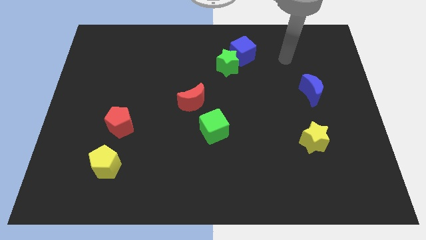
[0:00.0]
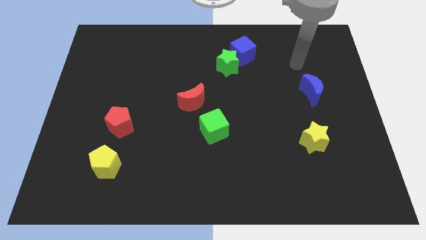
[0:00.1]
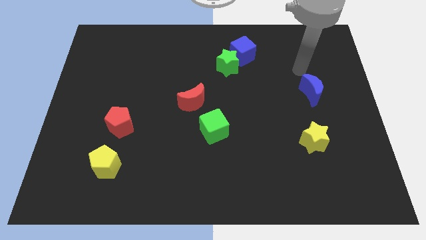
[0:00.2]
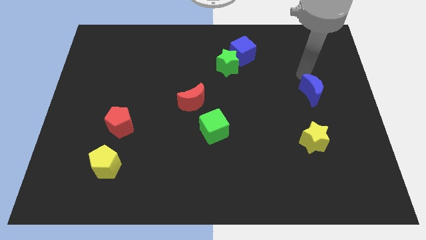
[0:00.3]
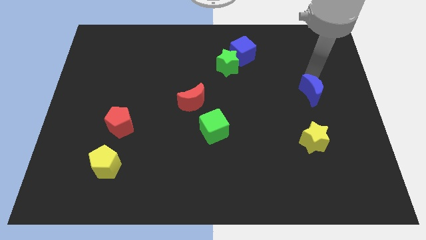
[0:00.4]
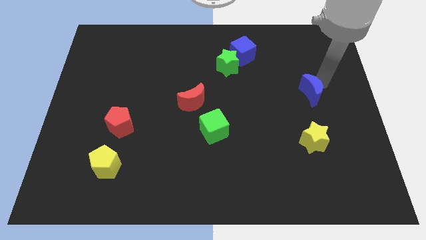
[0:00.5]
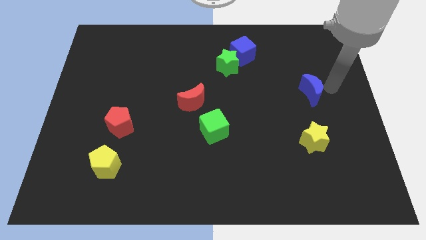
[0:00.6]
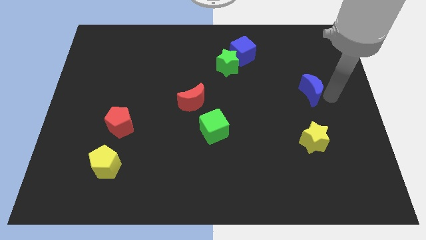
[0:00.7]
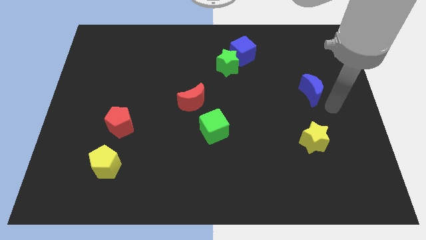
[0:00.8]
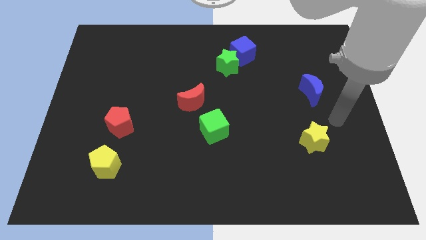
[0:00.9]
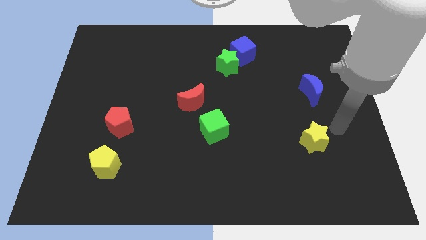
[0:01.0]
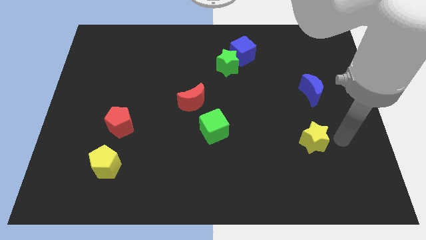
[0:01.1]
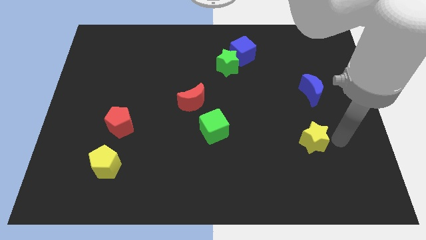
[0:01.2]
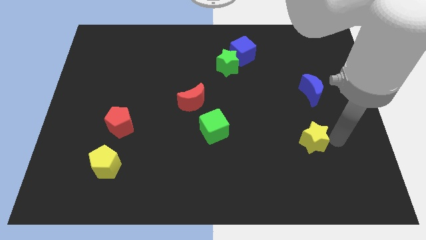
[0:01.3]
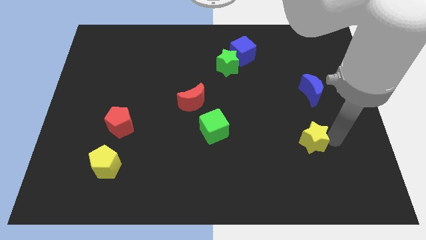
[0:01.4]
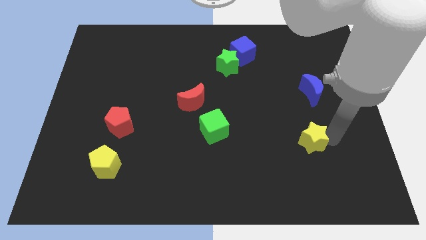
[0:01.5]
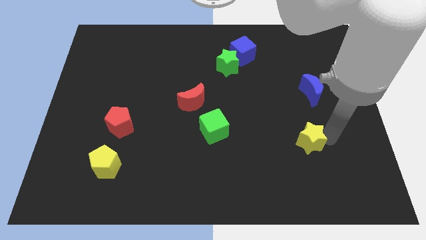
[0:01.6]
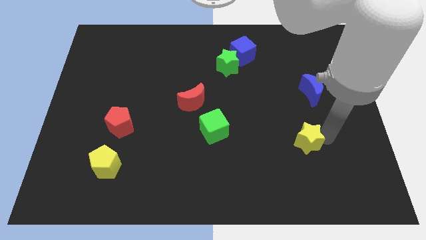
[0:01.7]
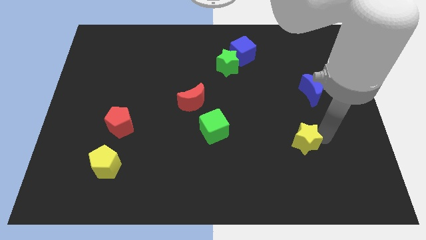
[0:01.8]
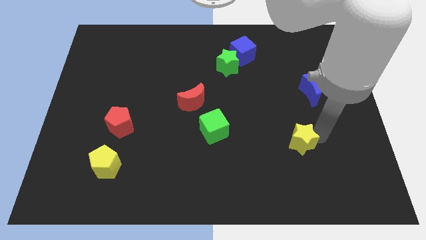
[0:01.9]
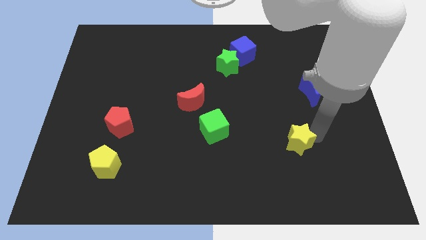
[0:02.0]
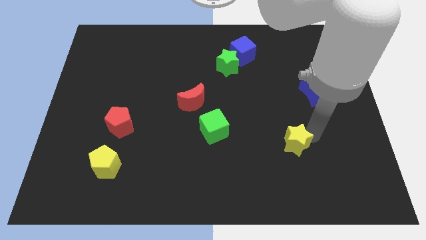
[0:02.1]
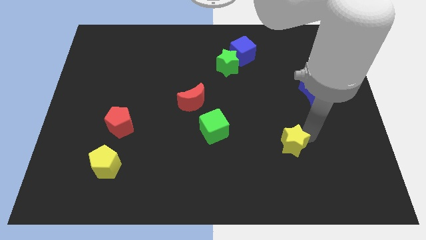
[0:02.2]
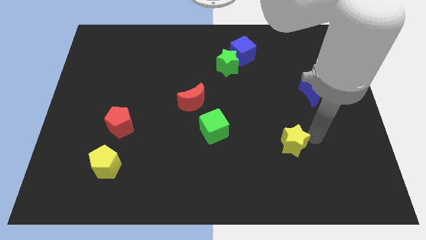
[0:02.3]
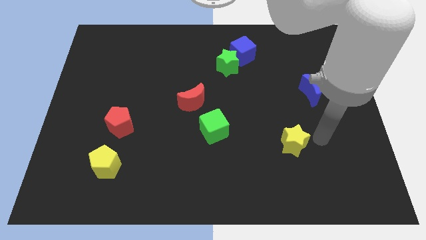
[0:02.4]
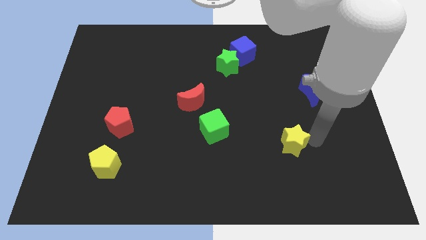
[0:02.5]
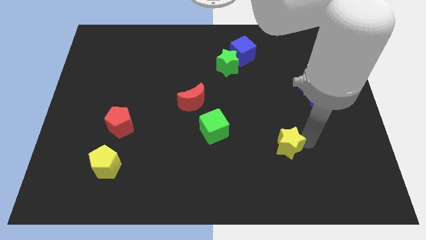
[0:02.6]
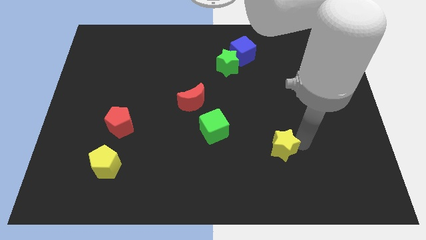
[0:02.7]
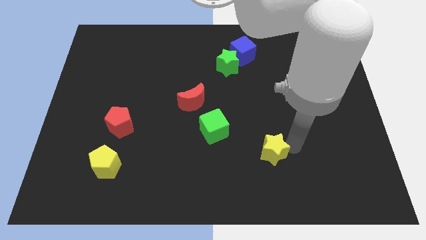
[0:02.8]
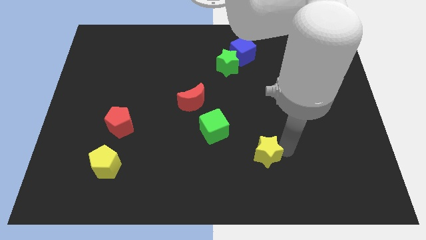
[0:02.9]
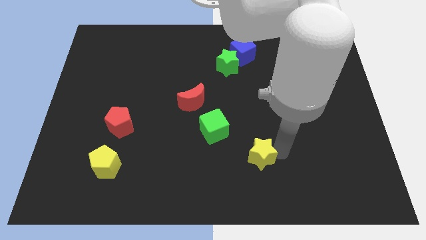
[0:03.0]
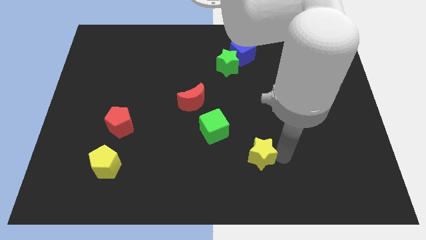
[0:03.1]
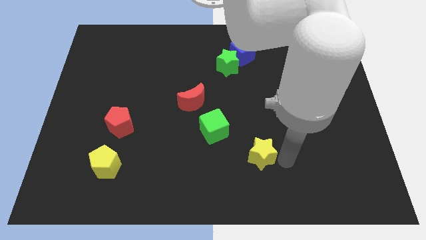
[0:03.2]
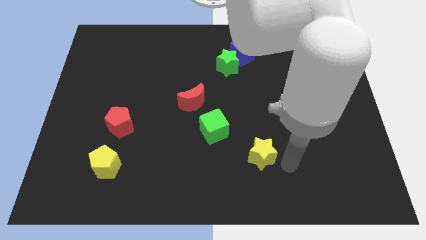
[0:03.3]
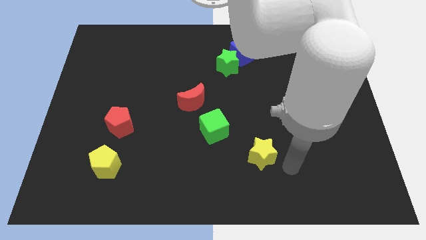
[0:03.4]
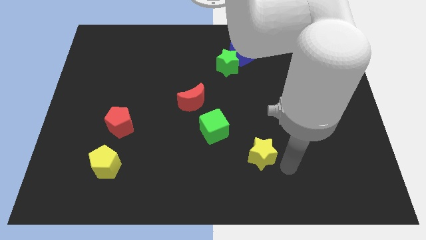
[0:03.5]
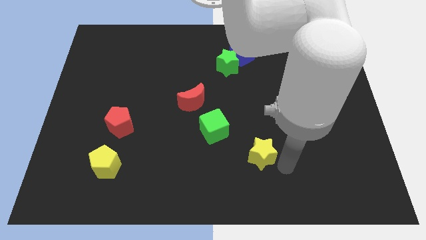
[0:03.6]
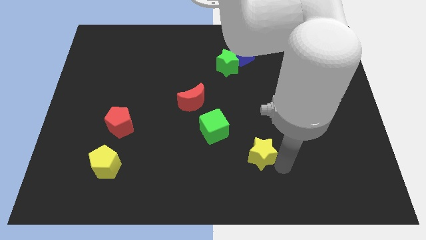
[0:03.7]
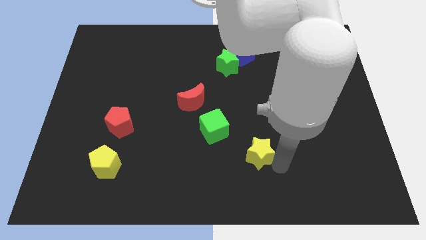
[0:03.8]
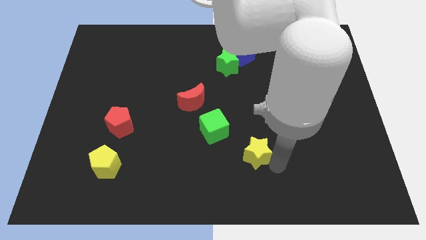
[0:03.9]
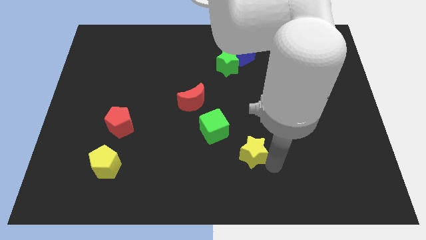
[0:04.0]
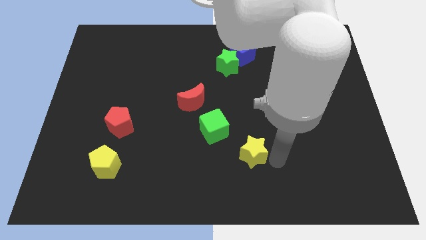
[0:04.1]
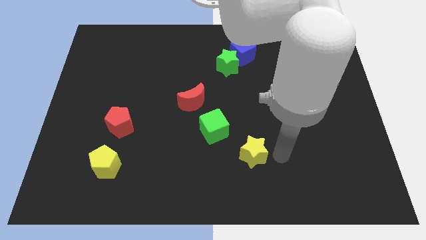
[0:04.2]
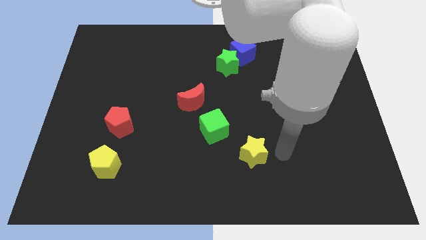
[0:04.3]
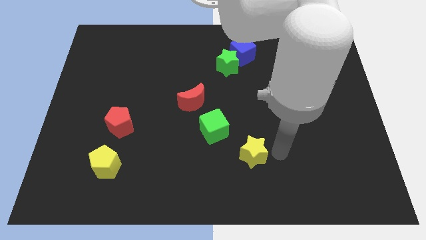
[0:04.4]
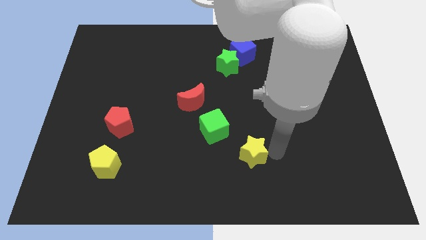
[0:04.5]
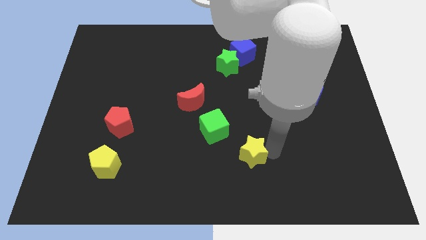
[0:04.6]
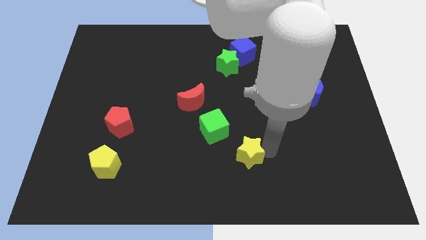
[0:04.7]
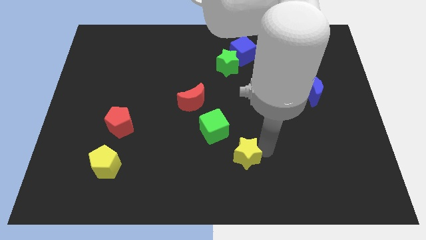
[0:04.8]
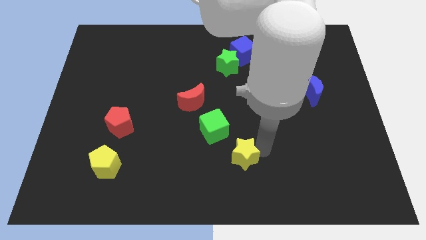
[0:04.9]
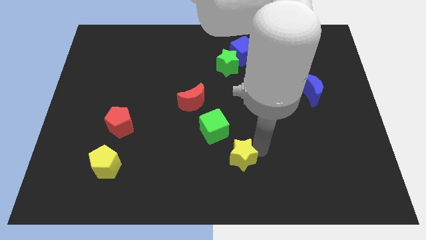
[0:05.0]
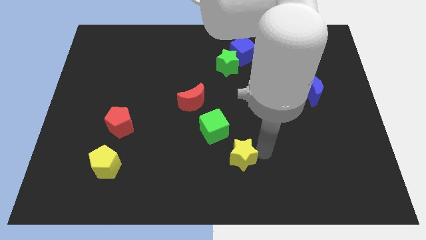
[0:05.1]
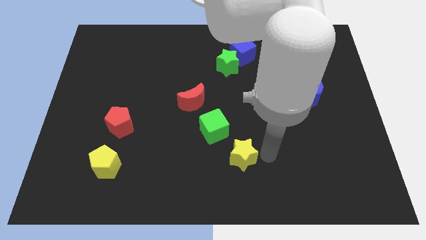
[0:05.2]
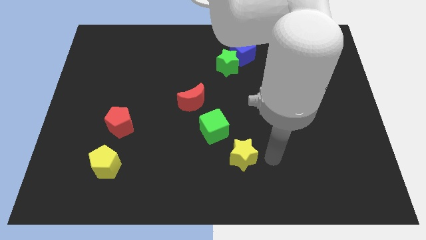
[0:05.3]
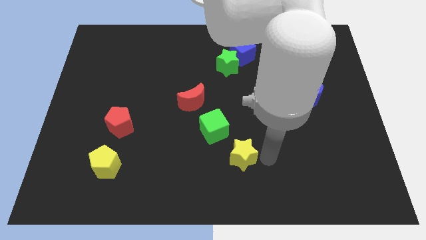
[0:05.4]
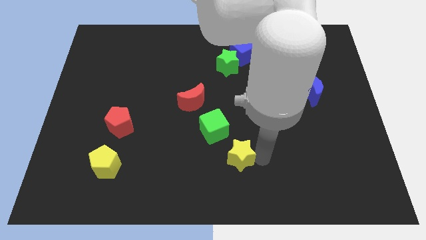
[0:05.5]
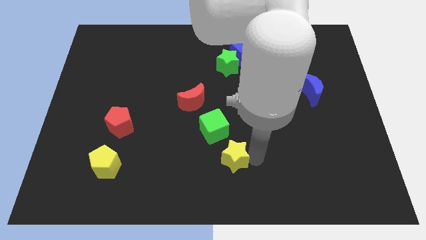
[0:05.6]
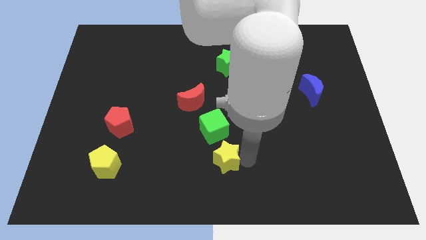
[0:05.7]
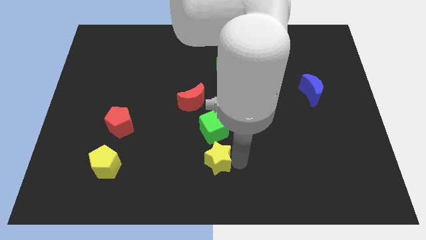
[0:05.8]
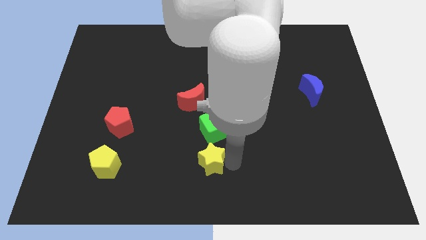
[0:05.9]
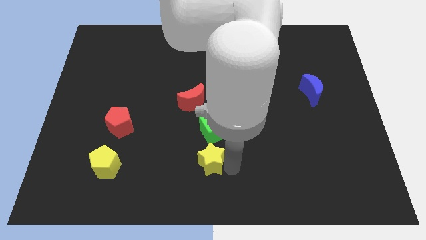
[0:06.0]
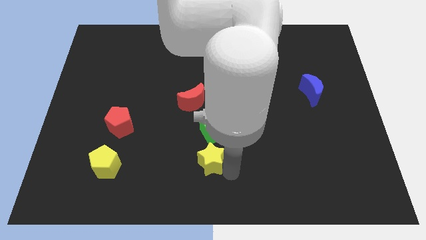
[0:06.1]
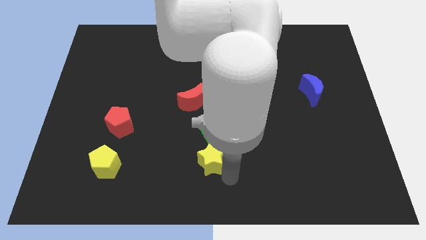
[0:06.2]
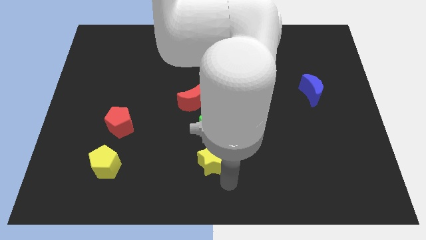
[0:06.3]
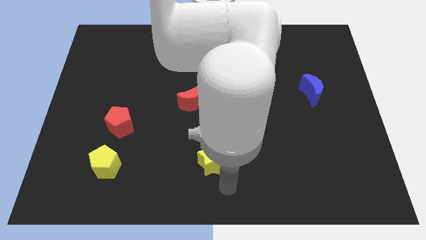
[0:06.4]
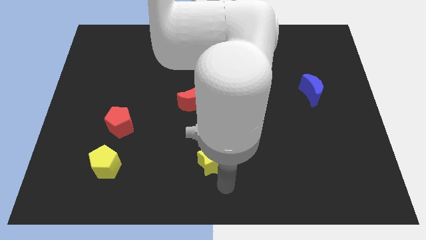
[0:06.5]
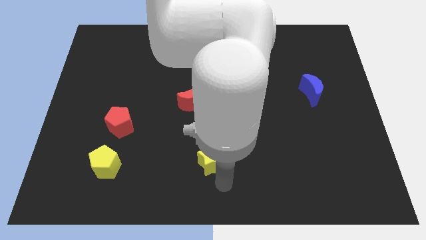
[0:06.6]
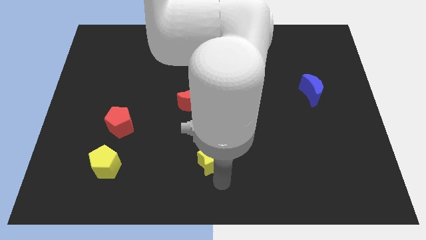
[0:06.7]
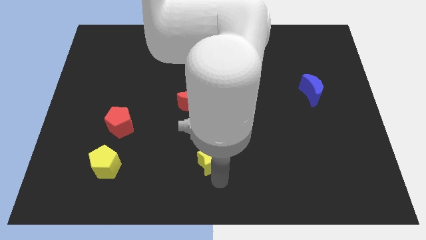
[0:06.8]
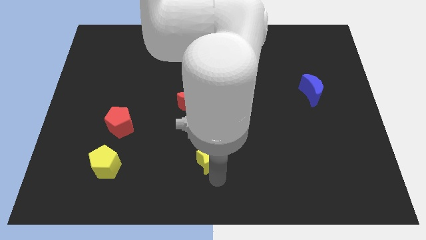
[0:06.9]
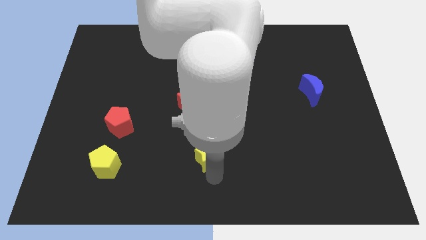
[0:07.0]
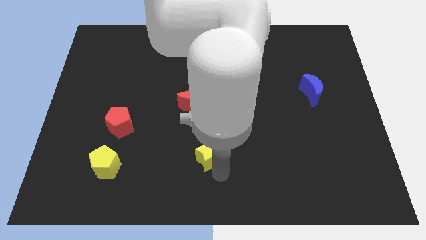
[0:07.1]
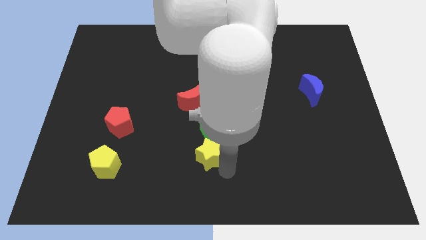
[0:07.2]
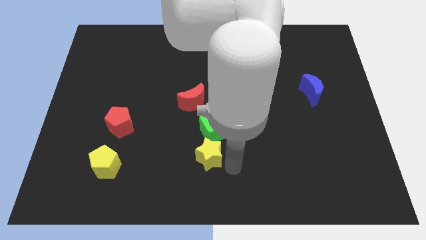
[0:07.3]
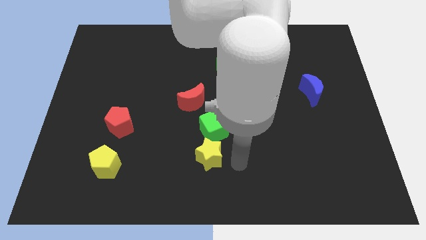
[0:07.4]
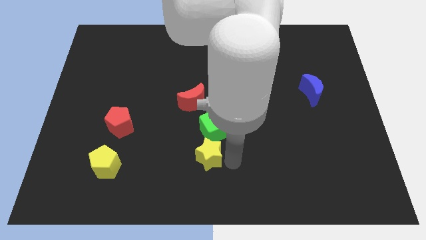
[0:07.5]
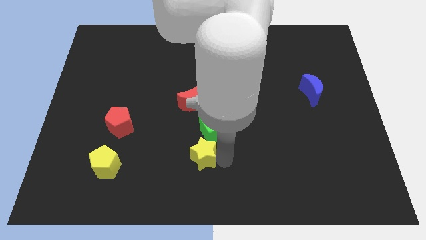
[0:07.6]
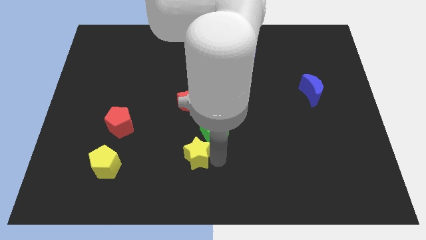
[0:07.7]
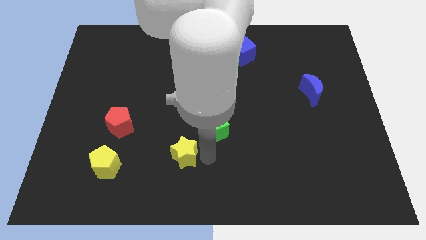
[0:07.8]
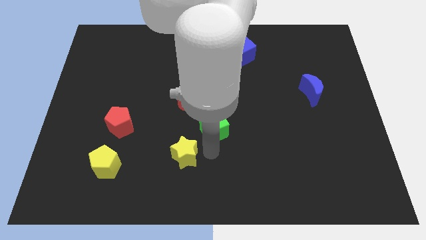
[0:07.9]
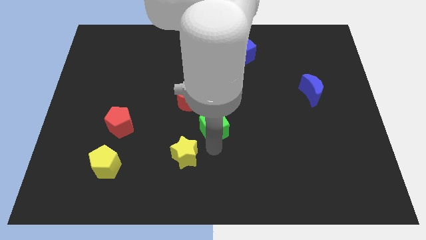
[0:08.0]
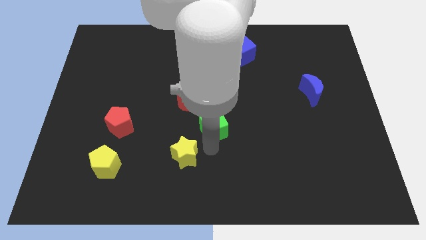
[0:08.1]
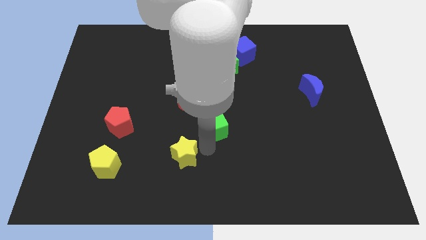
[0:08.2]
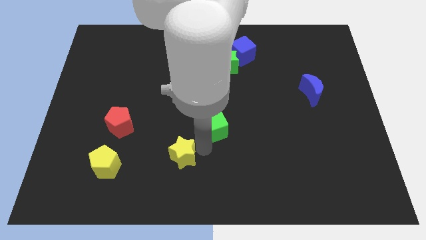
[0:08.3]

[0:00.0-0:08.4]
push the yellow star to the right of the yellow pentagon
